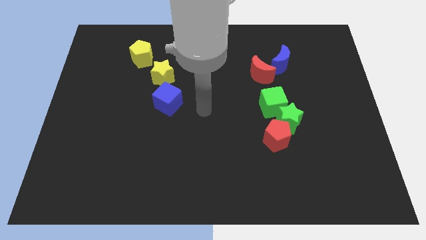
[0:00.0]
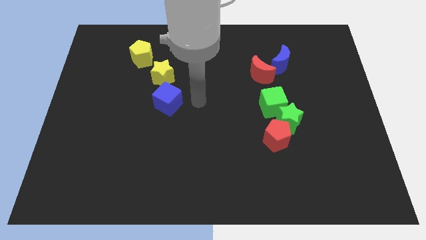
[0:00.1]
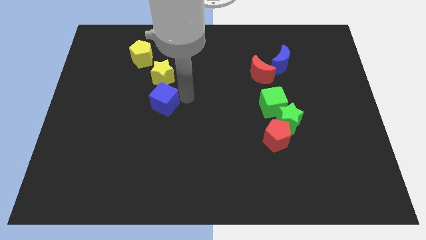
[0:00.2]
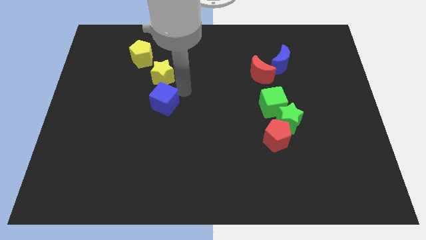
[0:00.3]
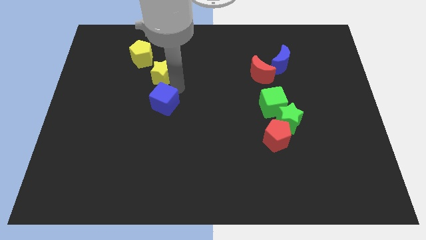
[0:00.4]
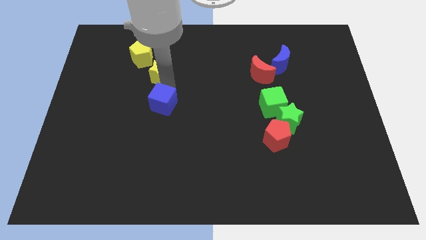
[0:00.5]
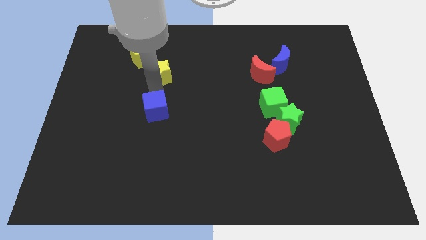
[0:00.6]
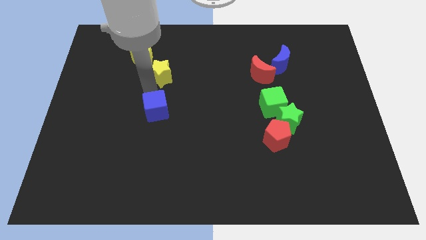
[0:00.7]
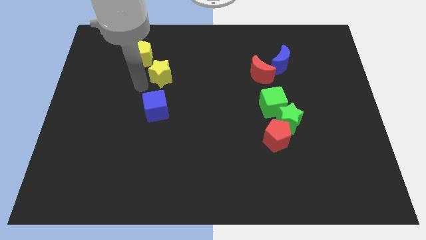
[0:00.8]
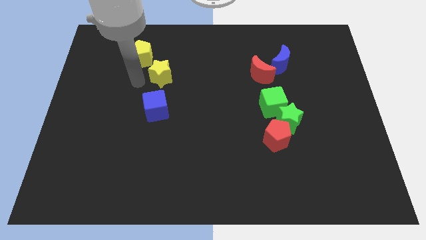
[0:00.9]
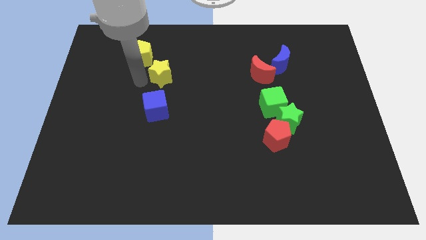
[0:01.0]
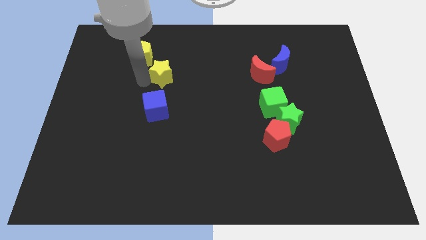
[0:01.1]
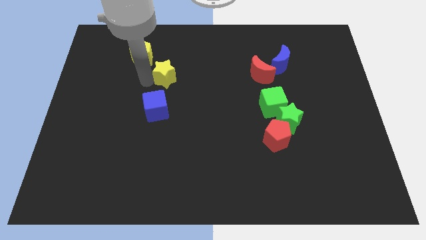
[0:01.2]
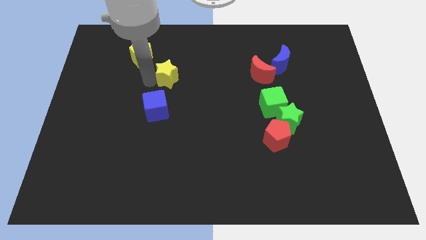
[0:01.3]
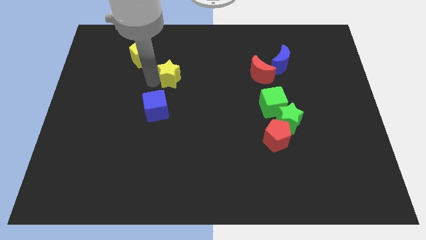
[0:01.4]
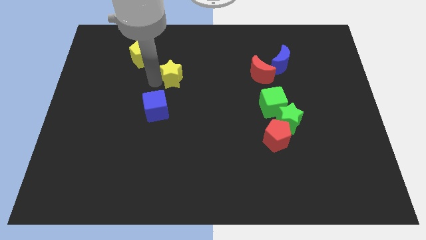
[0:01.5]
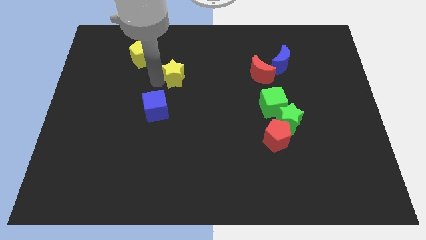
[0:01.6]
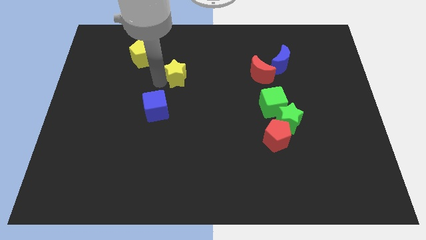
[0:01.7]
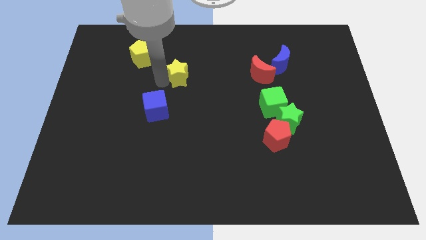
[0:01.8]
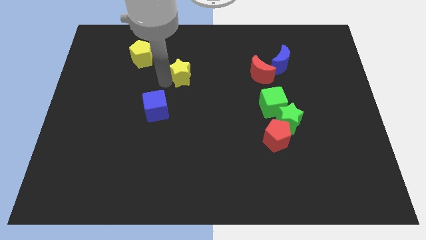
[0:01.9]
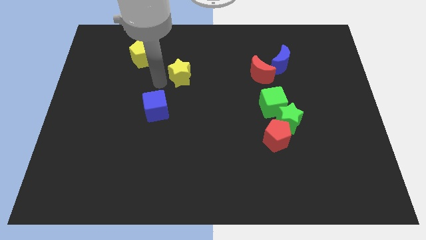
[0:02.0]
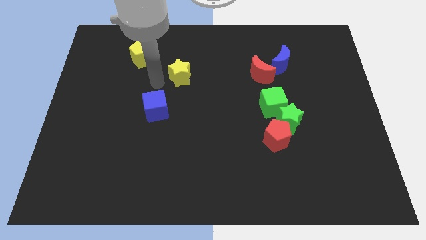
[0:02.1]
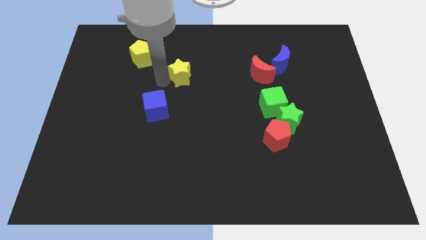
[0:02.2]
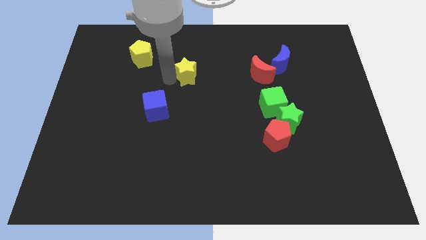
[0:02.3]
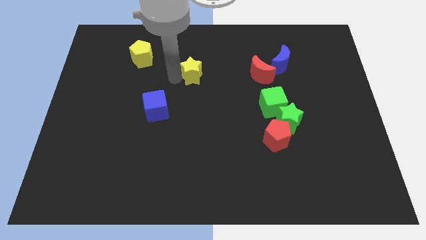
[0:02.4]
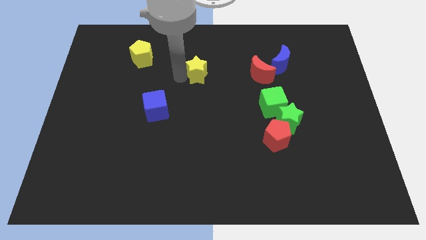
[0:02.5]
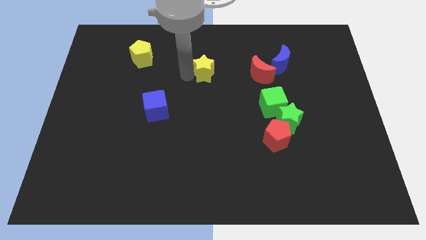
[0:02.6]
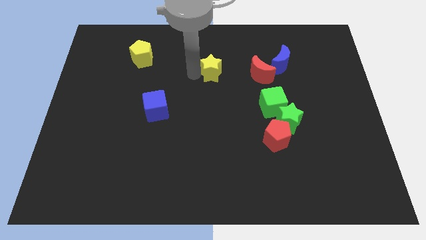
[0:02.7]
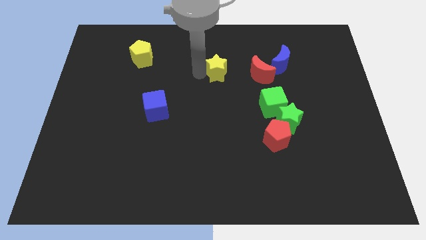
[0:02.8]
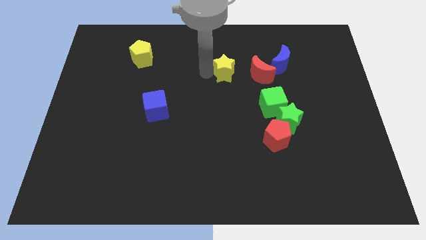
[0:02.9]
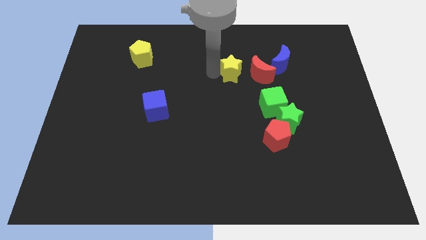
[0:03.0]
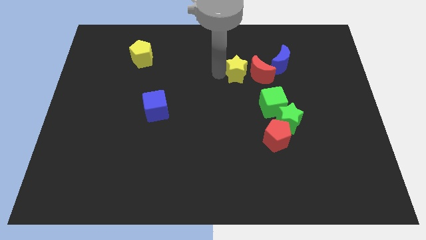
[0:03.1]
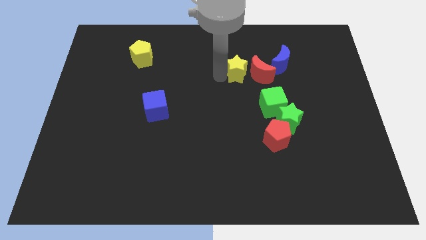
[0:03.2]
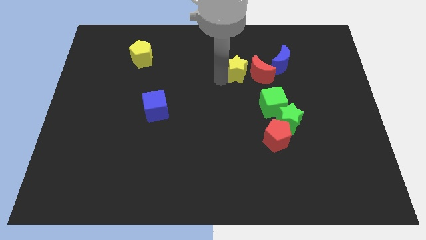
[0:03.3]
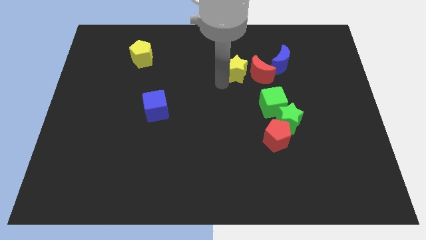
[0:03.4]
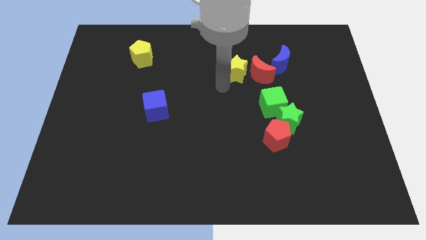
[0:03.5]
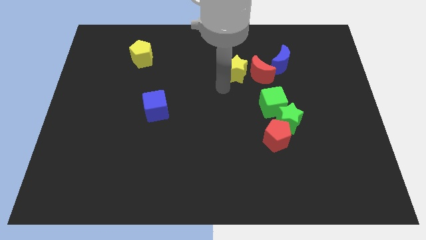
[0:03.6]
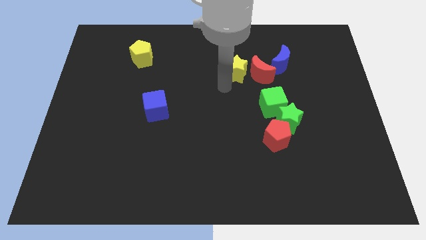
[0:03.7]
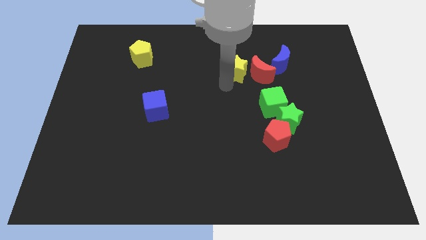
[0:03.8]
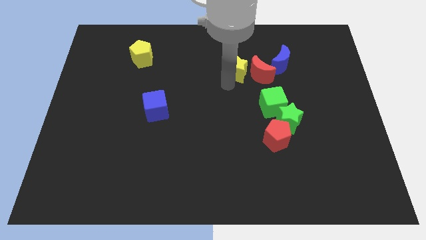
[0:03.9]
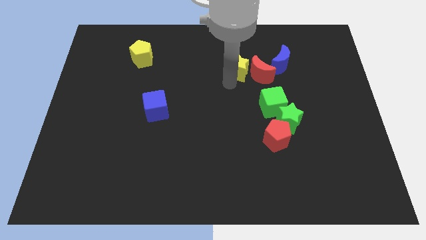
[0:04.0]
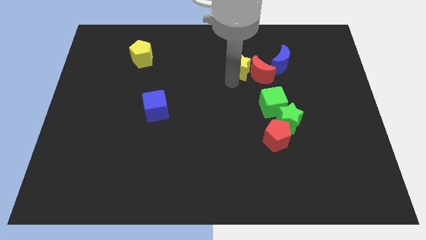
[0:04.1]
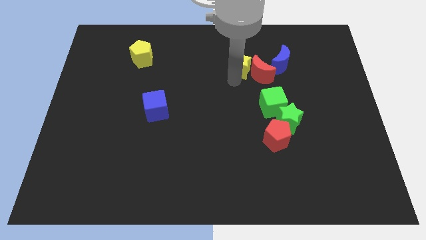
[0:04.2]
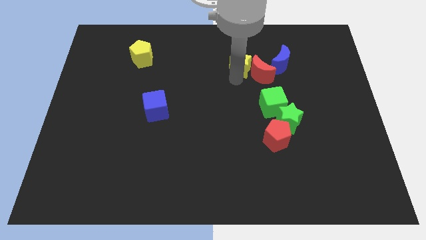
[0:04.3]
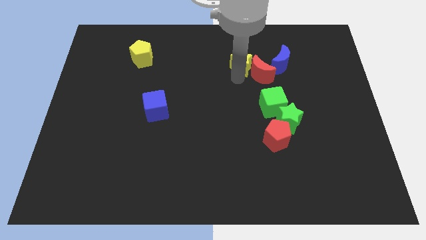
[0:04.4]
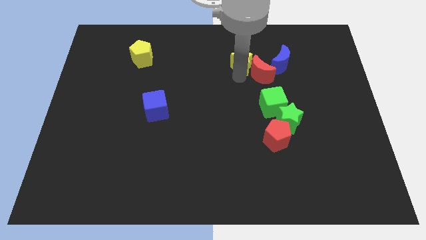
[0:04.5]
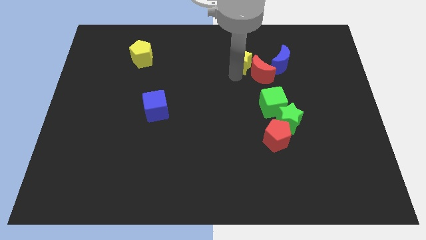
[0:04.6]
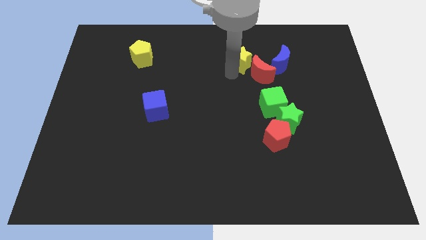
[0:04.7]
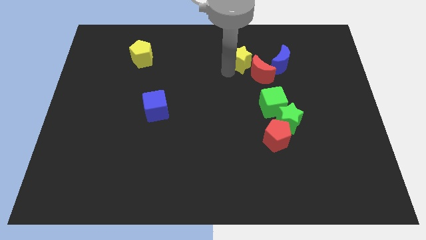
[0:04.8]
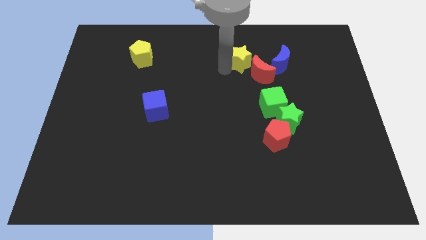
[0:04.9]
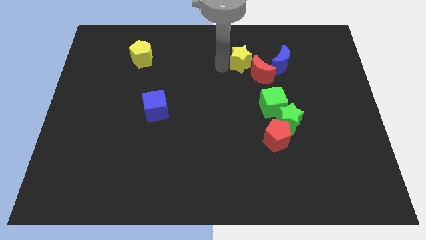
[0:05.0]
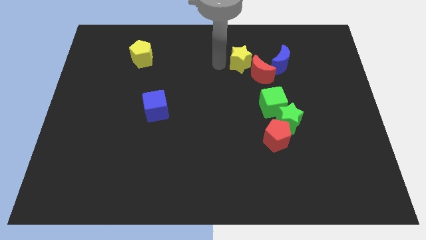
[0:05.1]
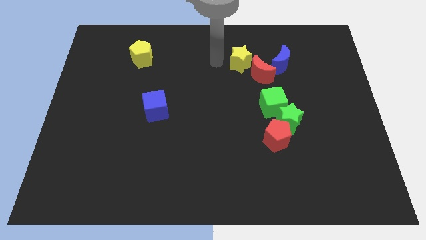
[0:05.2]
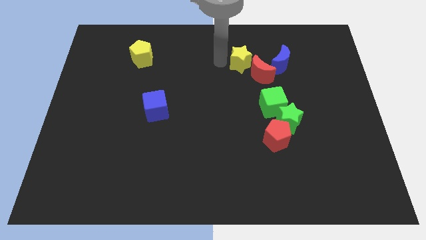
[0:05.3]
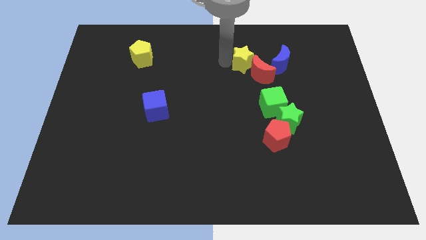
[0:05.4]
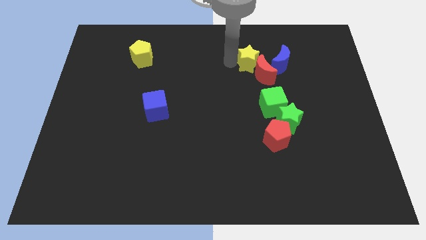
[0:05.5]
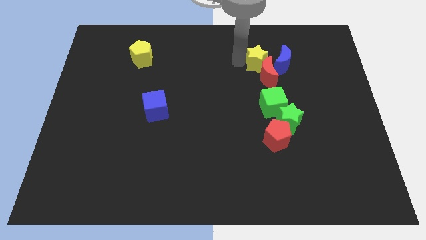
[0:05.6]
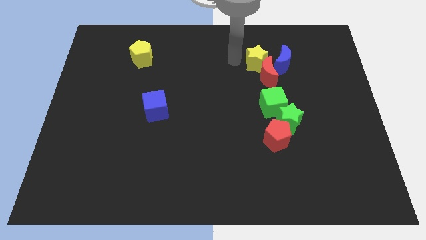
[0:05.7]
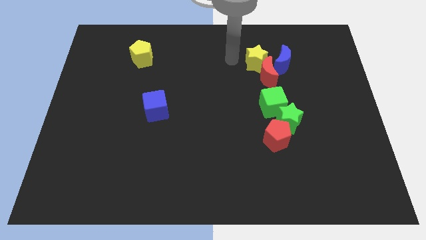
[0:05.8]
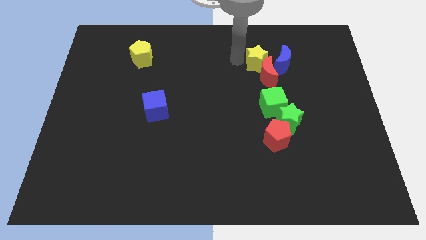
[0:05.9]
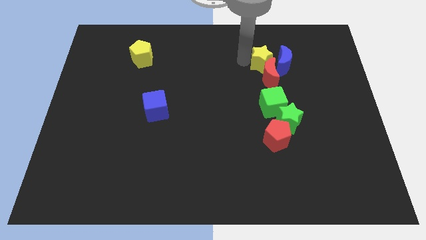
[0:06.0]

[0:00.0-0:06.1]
slide the yellow star to the blue moon

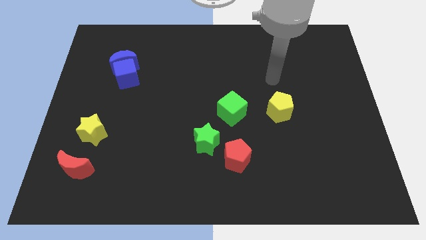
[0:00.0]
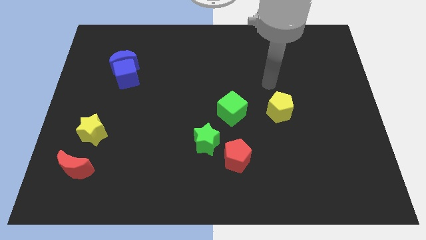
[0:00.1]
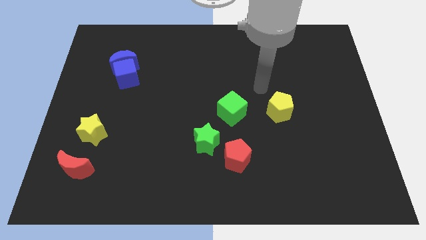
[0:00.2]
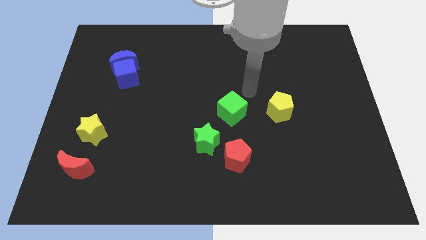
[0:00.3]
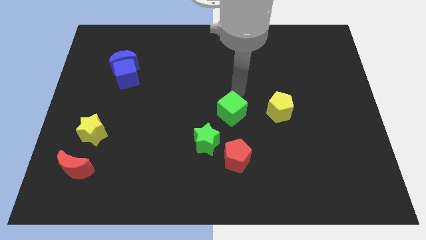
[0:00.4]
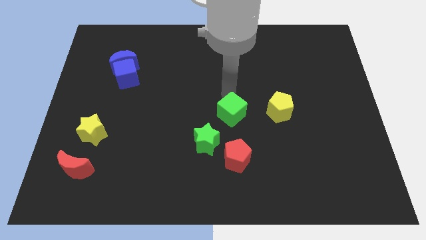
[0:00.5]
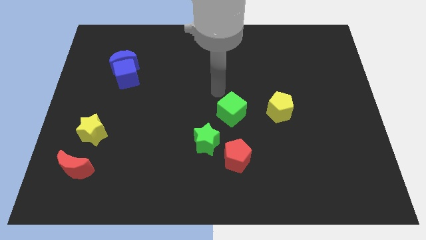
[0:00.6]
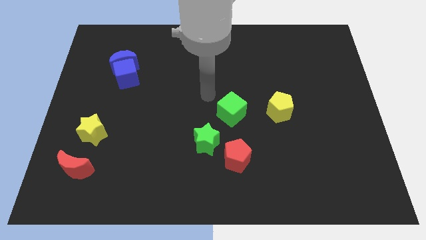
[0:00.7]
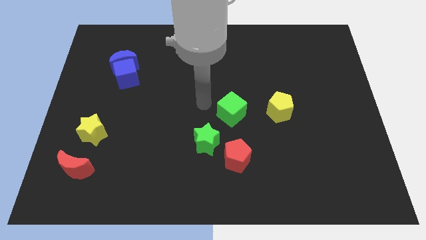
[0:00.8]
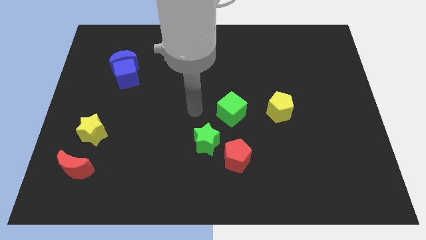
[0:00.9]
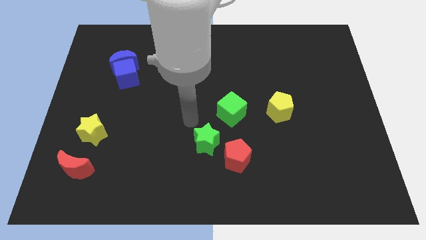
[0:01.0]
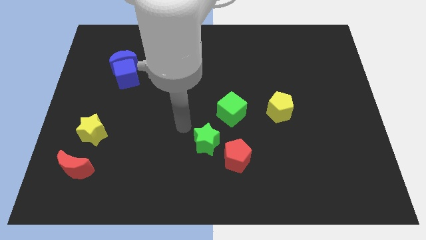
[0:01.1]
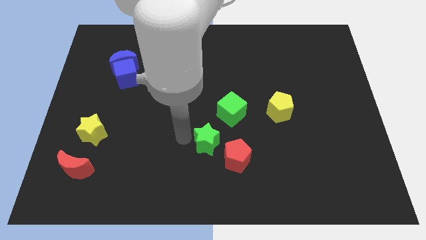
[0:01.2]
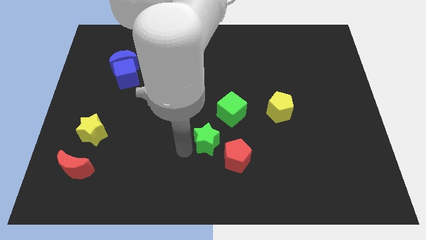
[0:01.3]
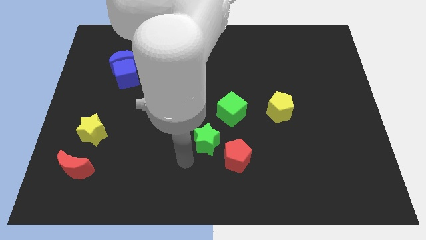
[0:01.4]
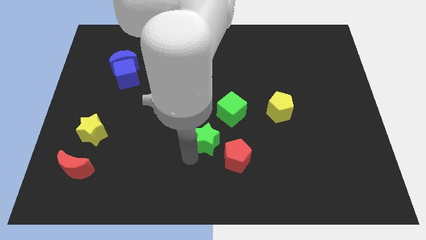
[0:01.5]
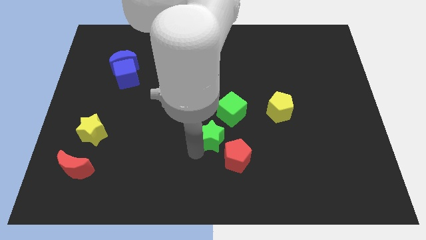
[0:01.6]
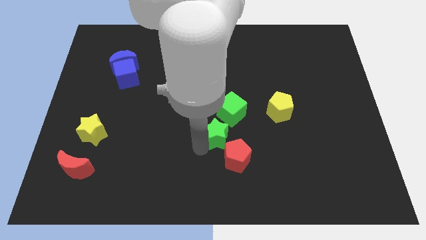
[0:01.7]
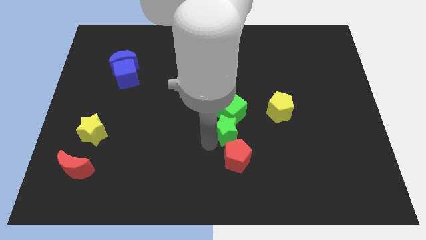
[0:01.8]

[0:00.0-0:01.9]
slide the green star close to the green cube

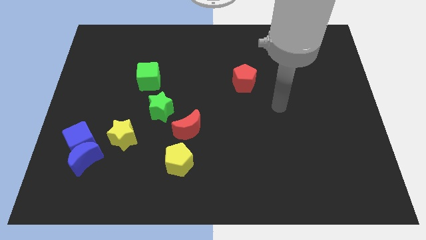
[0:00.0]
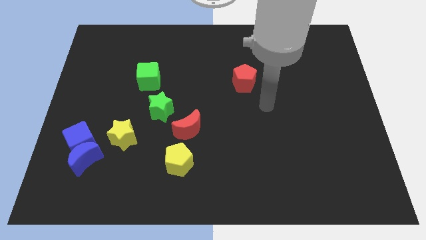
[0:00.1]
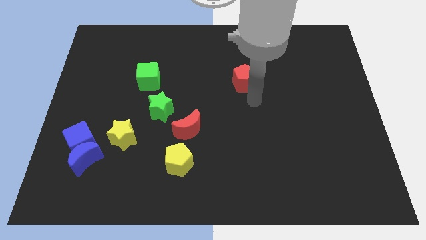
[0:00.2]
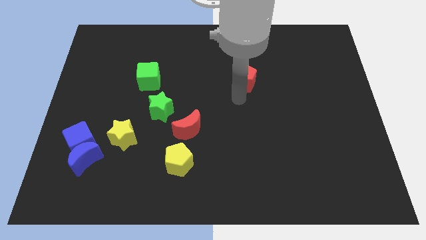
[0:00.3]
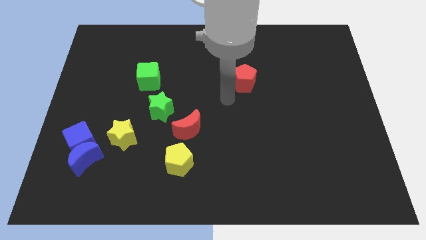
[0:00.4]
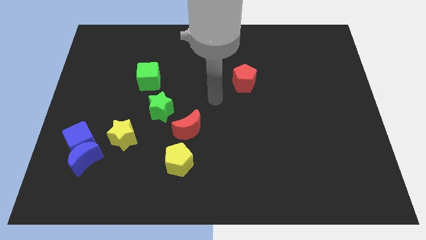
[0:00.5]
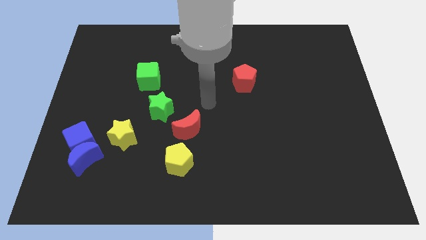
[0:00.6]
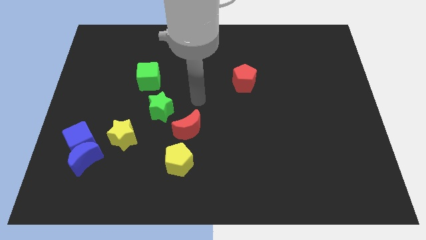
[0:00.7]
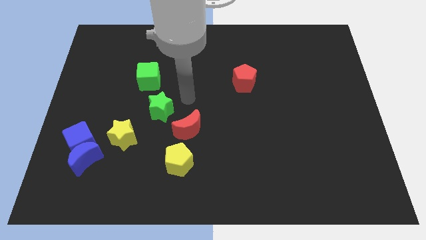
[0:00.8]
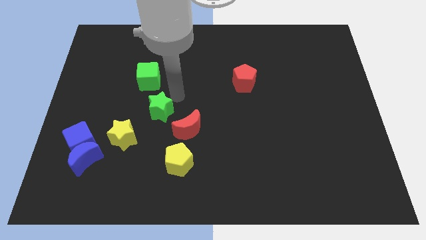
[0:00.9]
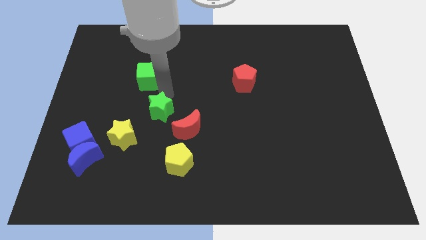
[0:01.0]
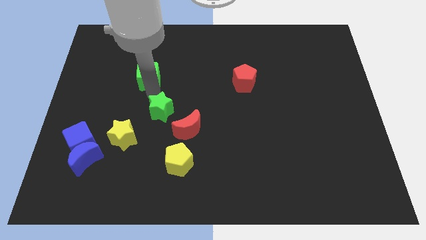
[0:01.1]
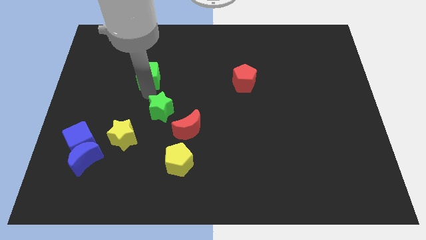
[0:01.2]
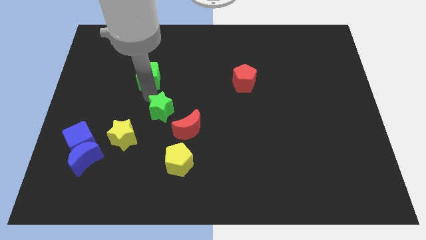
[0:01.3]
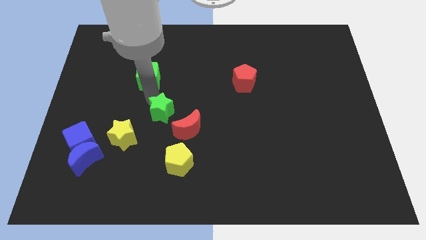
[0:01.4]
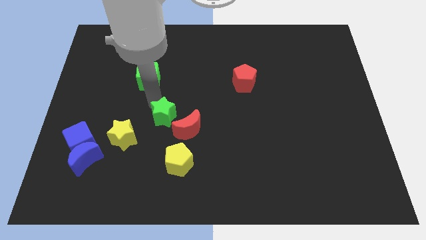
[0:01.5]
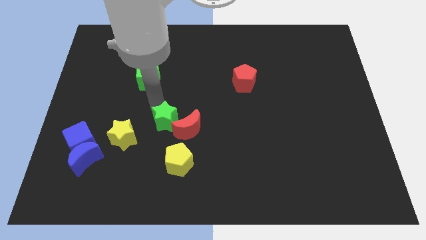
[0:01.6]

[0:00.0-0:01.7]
put the green star next to the red moon
